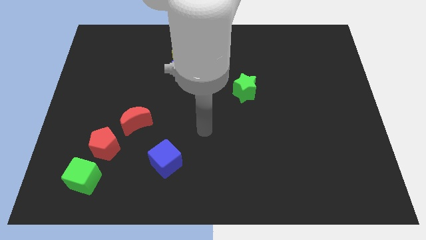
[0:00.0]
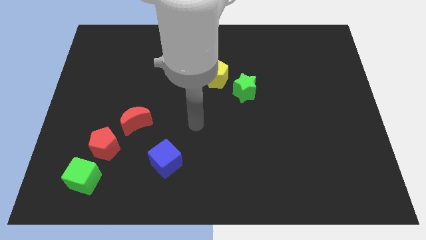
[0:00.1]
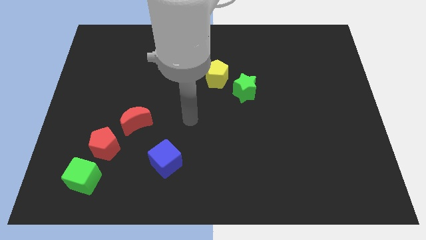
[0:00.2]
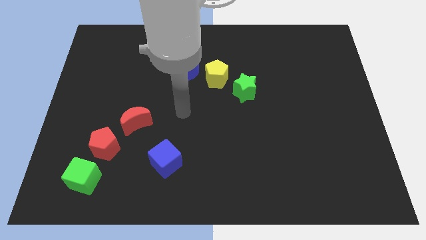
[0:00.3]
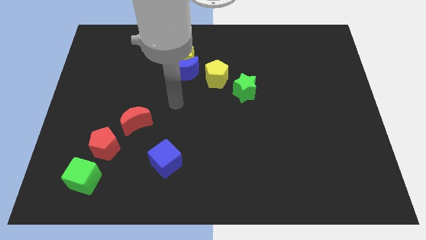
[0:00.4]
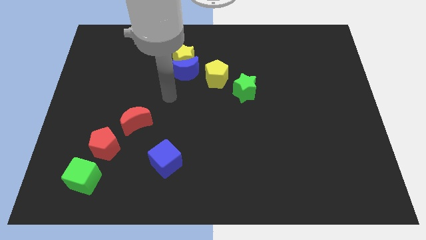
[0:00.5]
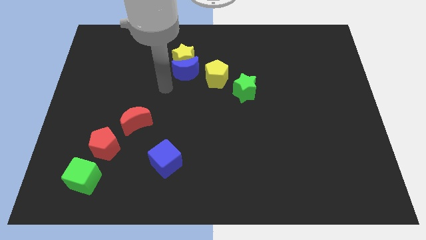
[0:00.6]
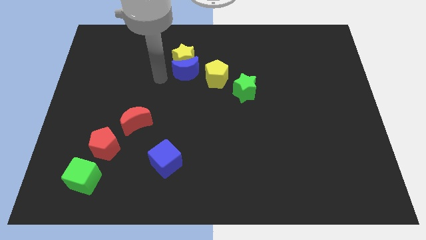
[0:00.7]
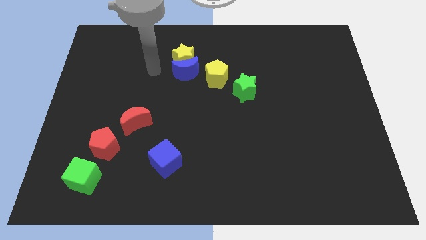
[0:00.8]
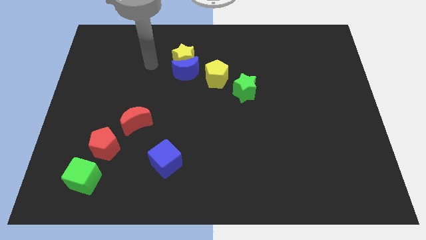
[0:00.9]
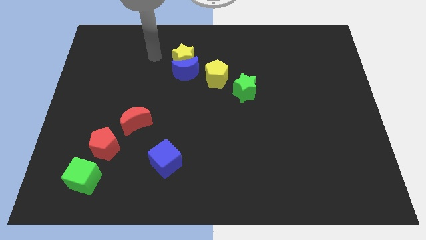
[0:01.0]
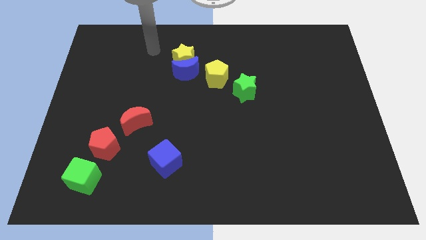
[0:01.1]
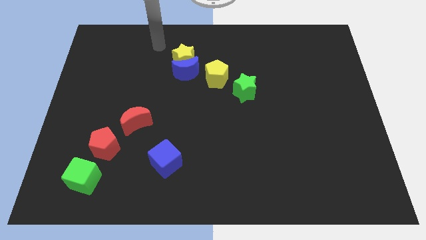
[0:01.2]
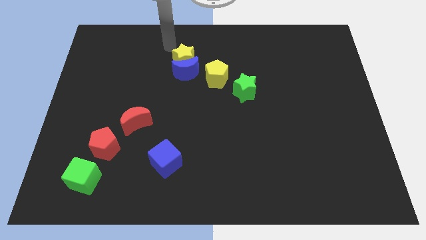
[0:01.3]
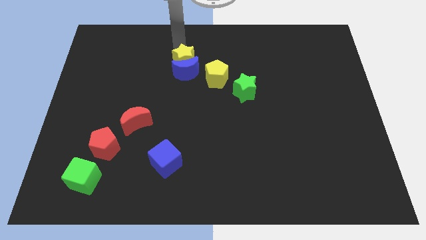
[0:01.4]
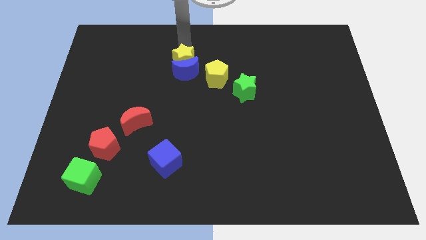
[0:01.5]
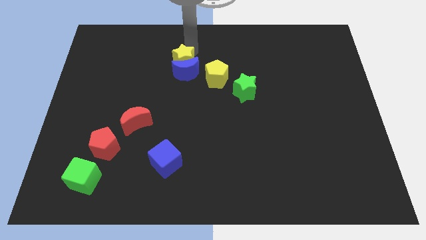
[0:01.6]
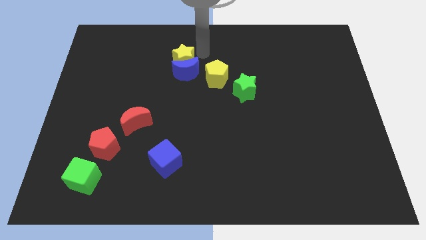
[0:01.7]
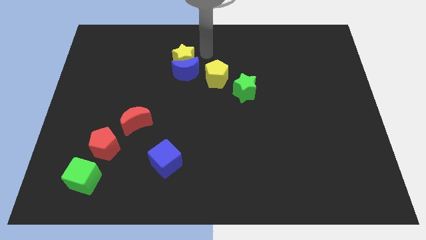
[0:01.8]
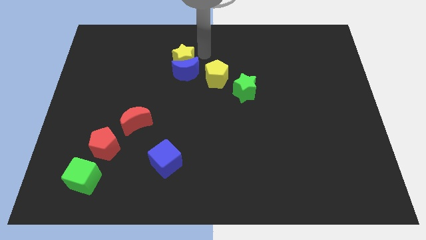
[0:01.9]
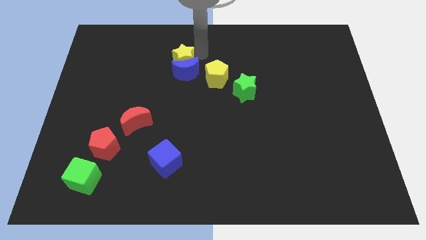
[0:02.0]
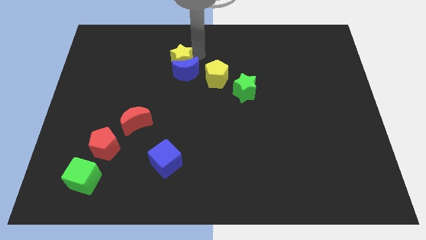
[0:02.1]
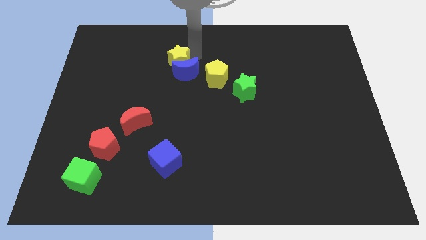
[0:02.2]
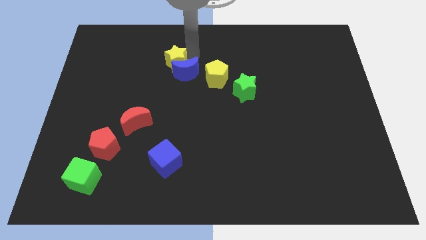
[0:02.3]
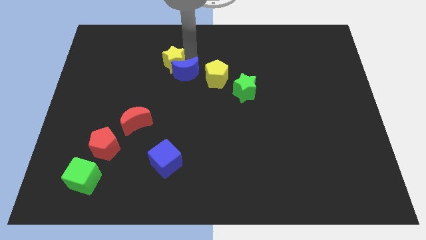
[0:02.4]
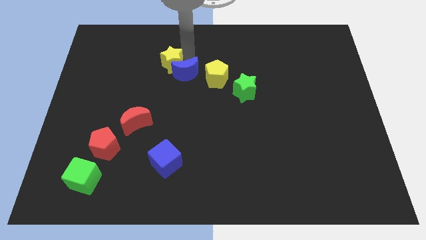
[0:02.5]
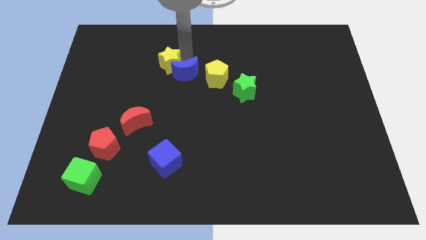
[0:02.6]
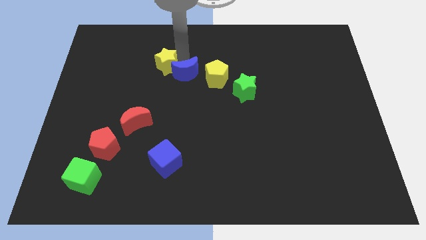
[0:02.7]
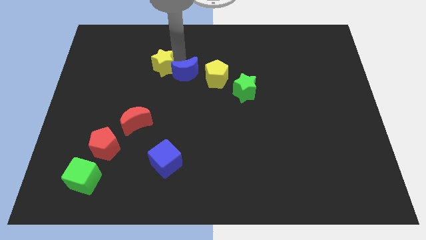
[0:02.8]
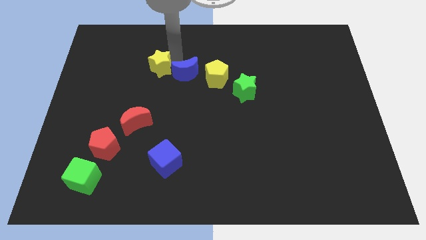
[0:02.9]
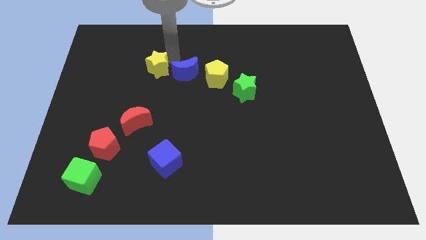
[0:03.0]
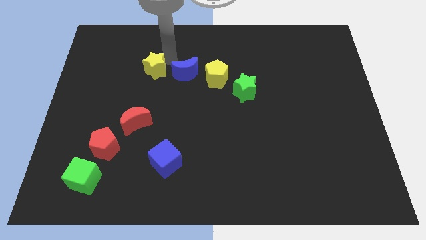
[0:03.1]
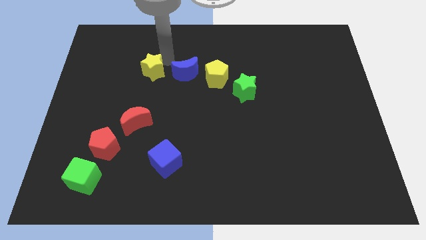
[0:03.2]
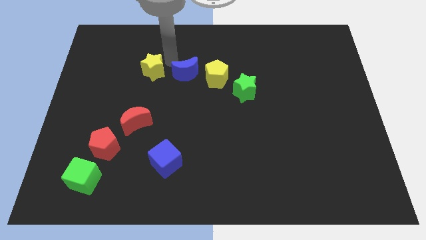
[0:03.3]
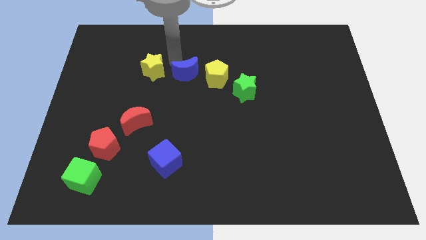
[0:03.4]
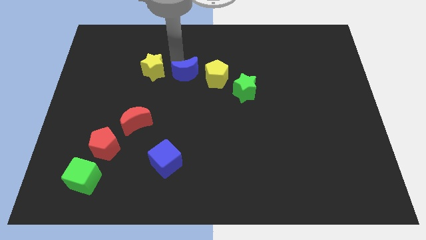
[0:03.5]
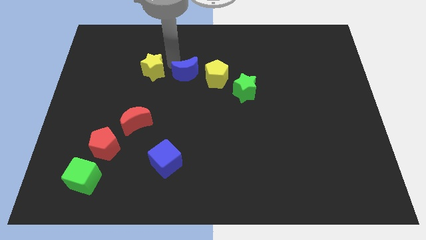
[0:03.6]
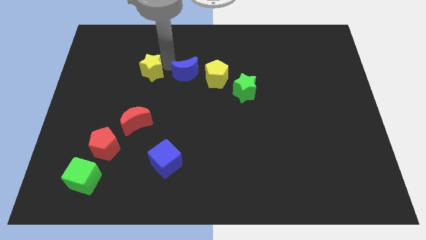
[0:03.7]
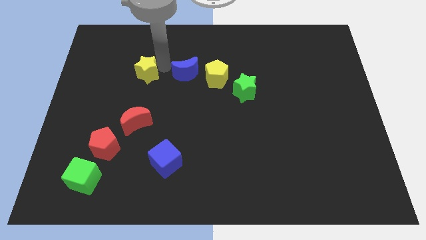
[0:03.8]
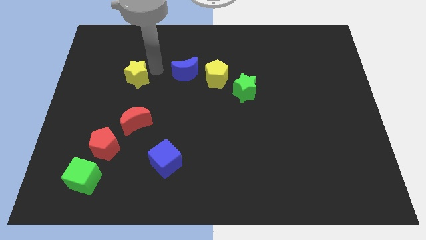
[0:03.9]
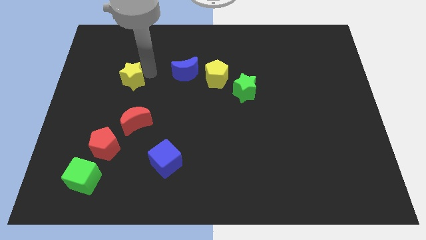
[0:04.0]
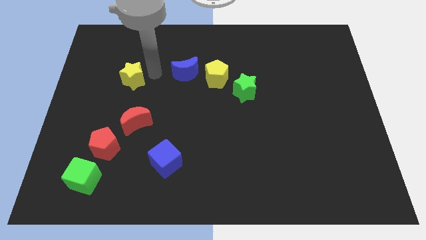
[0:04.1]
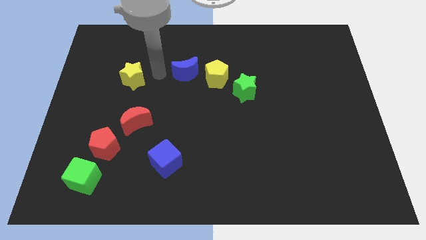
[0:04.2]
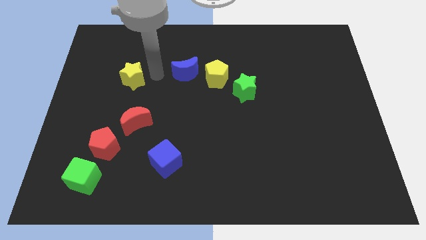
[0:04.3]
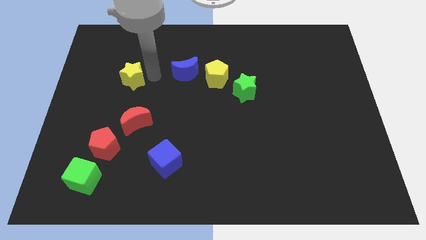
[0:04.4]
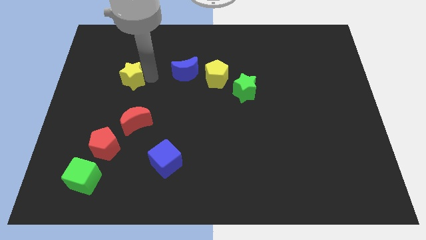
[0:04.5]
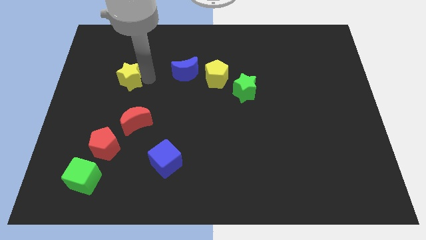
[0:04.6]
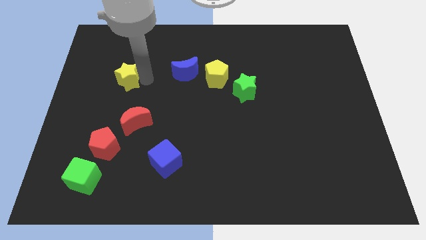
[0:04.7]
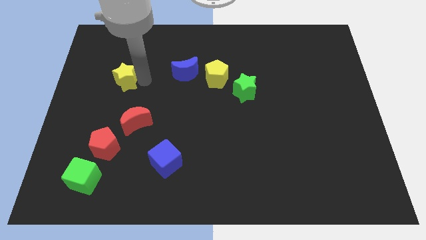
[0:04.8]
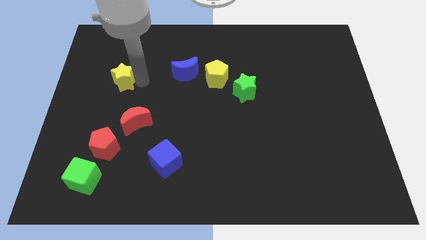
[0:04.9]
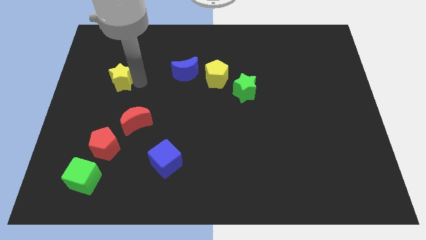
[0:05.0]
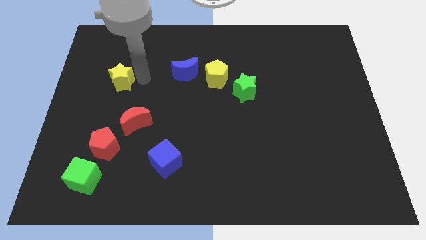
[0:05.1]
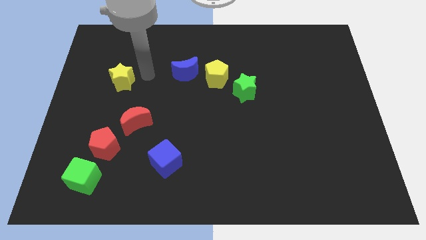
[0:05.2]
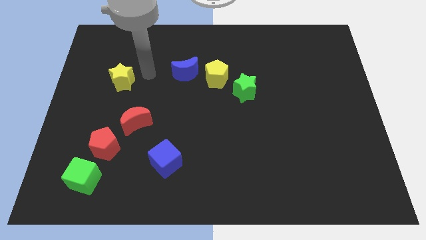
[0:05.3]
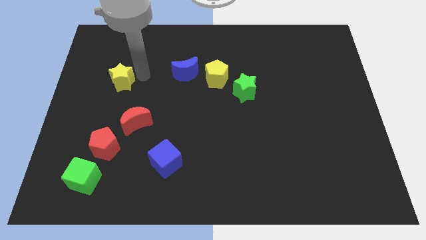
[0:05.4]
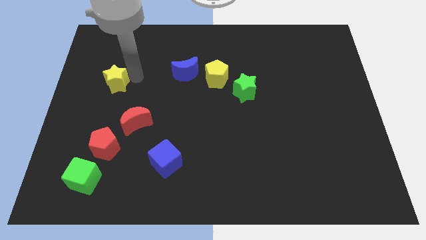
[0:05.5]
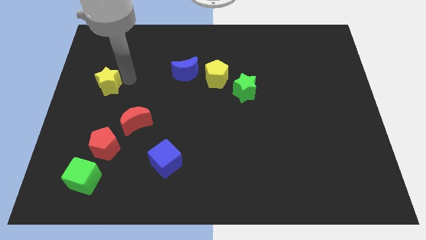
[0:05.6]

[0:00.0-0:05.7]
move the yellow star to the left side
